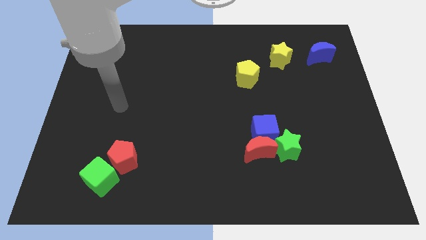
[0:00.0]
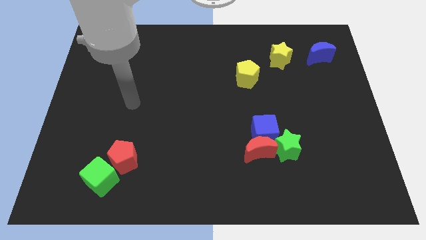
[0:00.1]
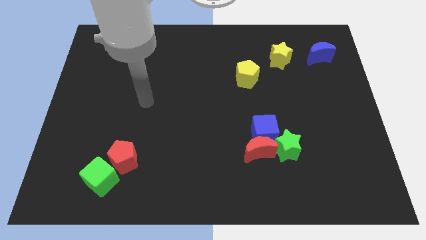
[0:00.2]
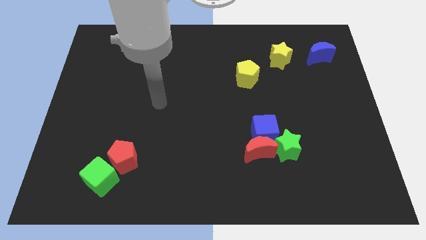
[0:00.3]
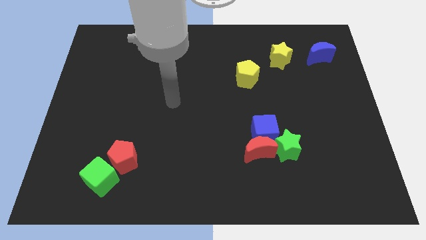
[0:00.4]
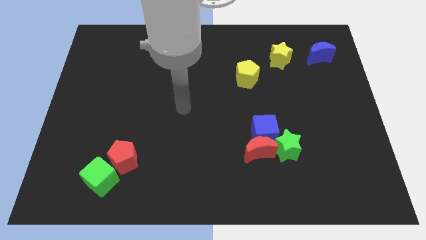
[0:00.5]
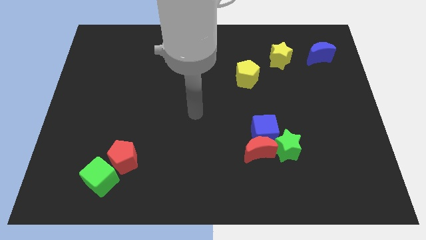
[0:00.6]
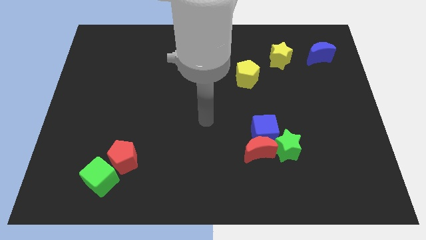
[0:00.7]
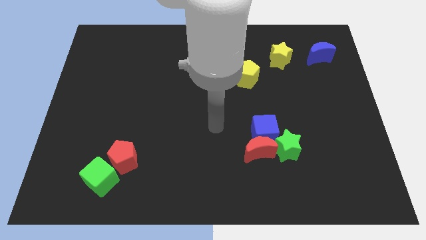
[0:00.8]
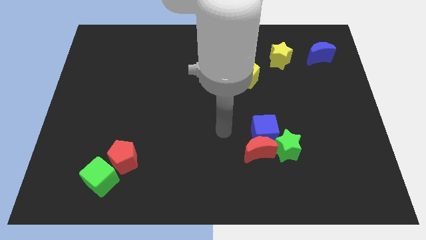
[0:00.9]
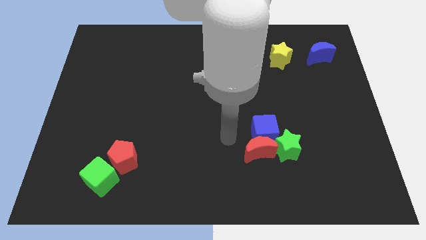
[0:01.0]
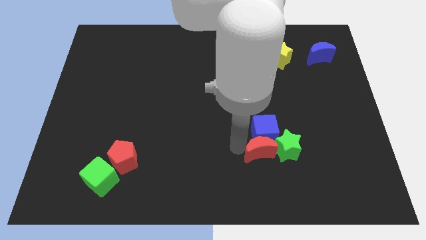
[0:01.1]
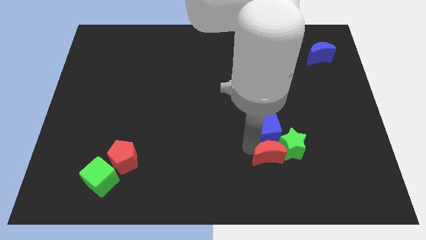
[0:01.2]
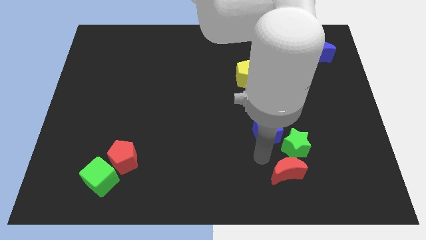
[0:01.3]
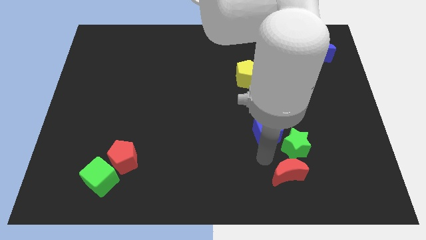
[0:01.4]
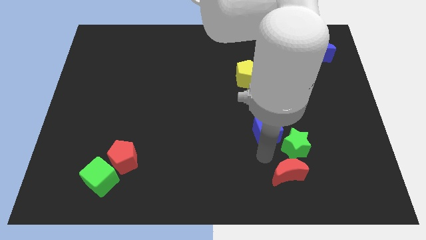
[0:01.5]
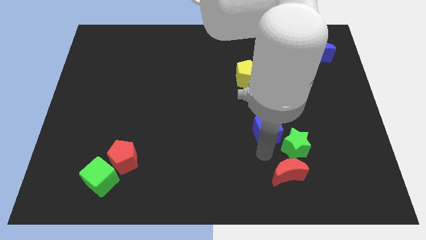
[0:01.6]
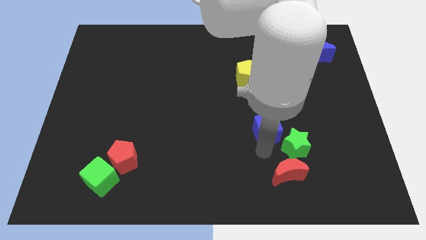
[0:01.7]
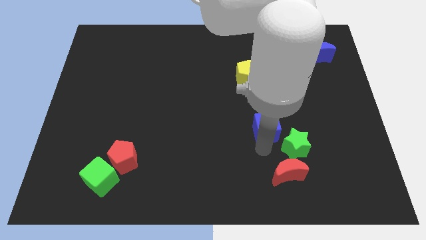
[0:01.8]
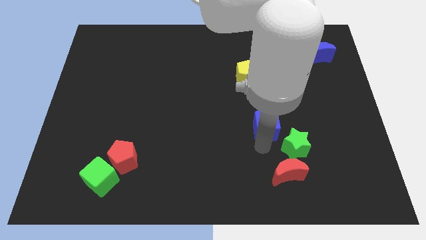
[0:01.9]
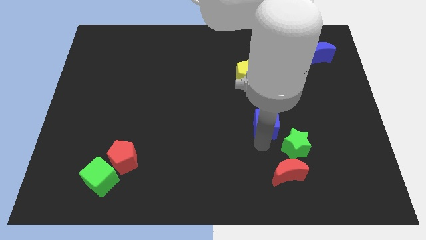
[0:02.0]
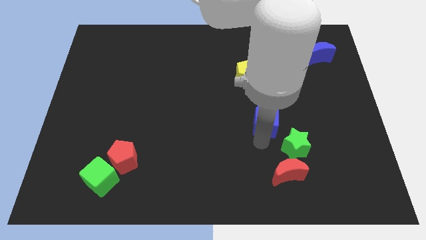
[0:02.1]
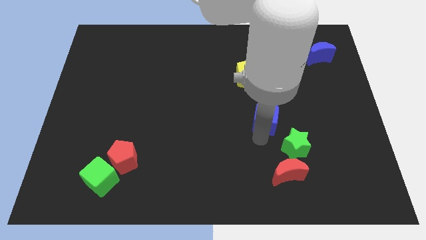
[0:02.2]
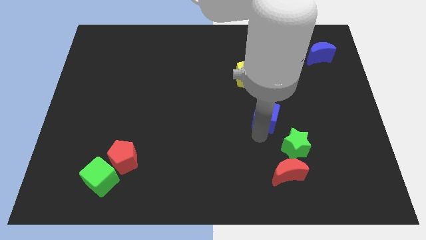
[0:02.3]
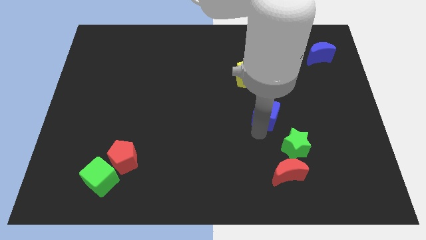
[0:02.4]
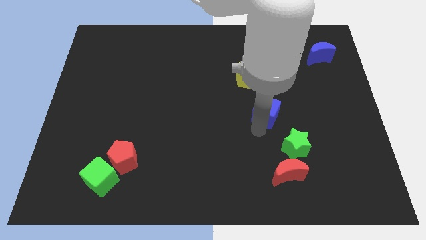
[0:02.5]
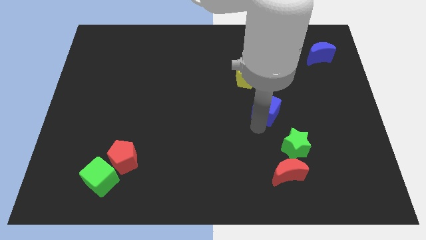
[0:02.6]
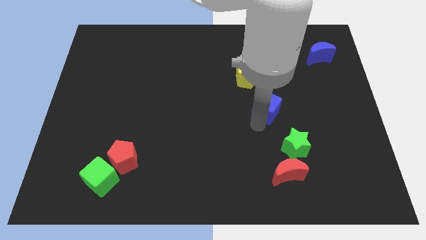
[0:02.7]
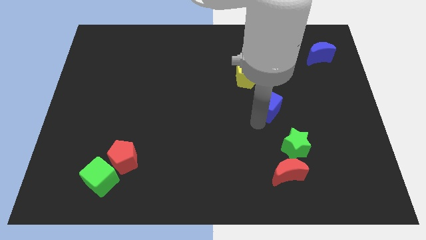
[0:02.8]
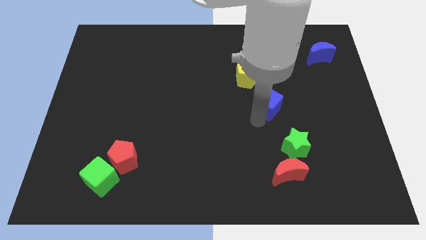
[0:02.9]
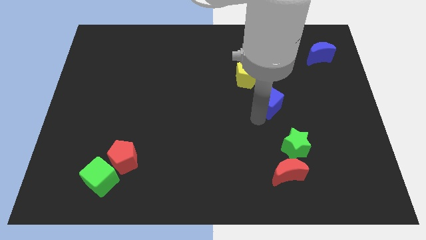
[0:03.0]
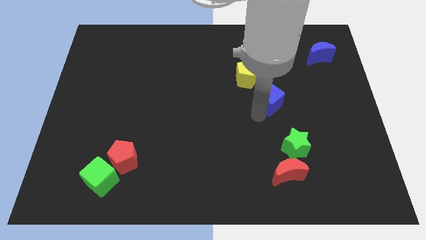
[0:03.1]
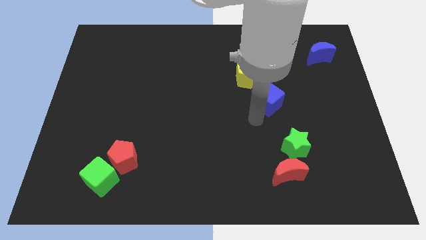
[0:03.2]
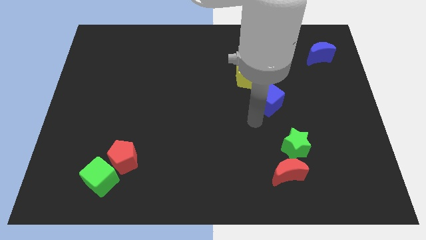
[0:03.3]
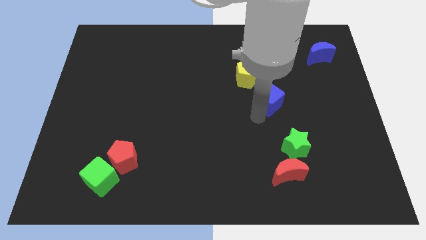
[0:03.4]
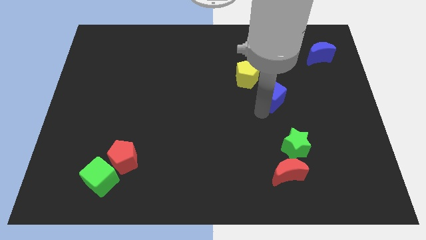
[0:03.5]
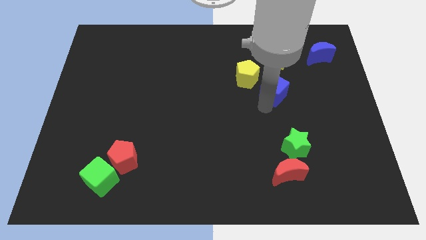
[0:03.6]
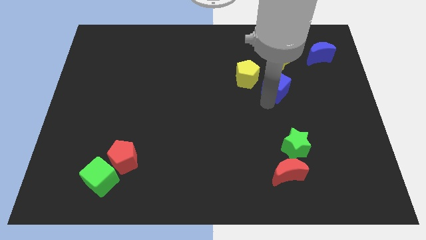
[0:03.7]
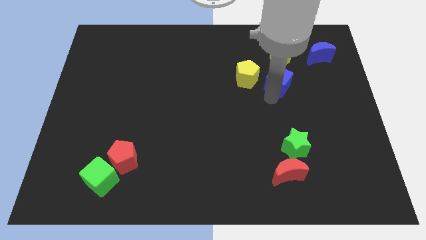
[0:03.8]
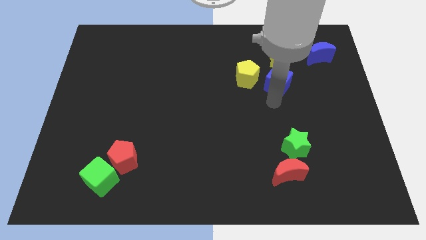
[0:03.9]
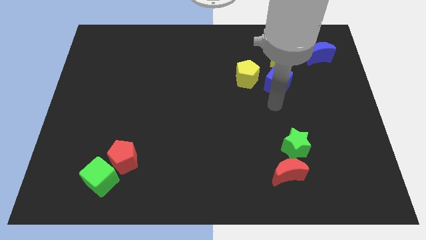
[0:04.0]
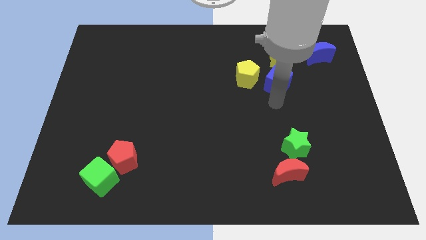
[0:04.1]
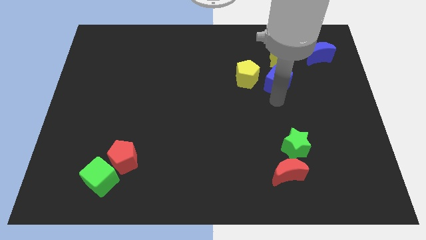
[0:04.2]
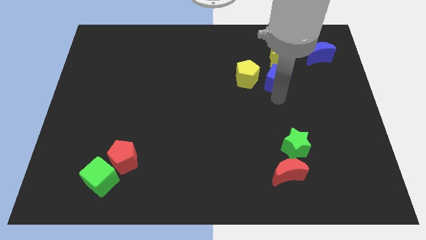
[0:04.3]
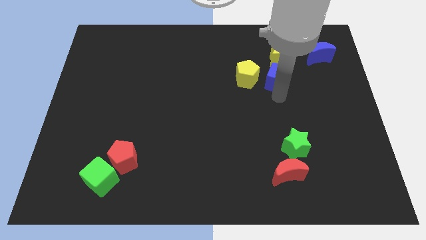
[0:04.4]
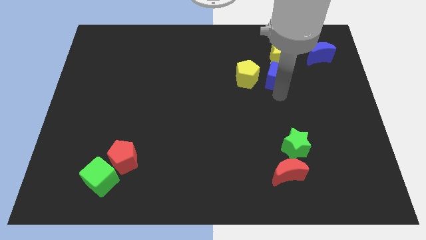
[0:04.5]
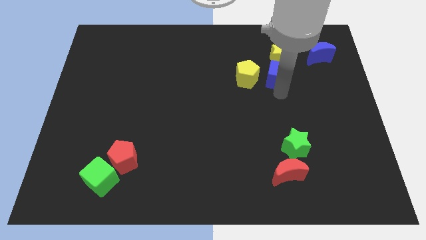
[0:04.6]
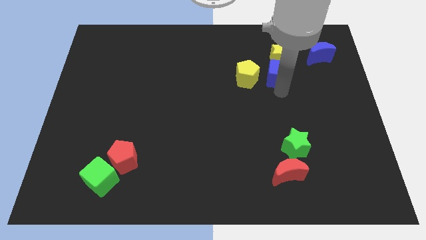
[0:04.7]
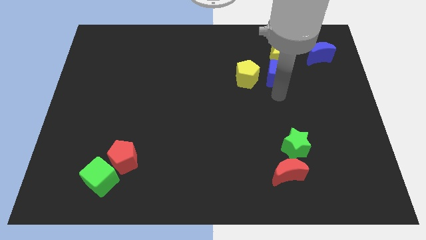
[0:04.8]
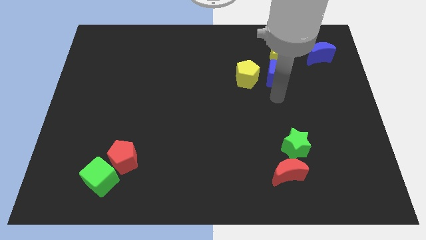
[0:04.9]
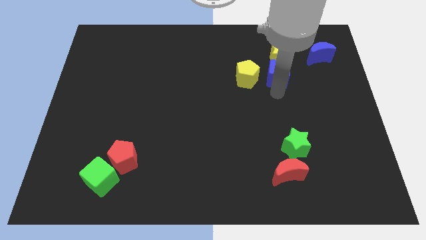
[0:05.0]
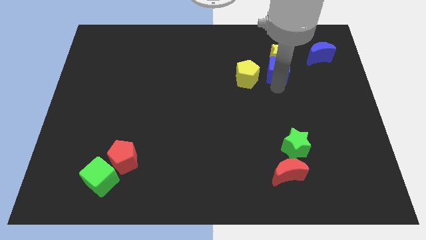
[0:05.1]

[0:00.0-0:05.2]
slide the blue cube close to the yellow star

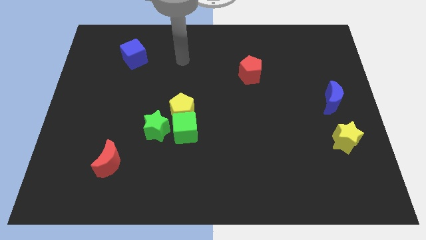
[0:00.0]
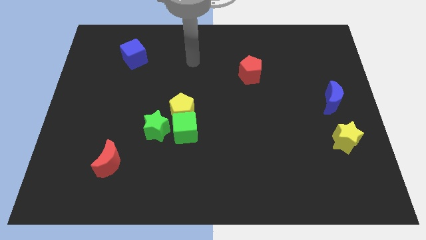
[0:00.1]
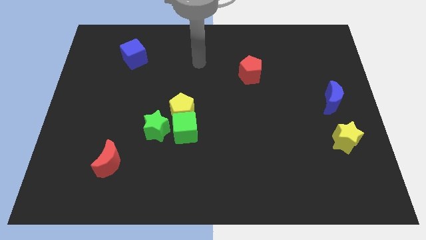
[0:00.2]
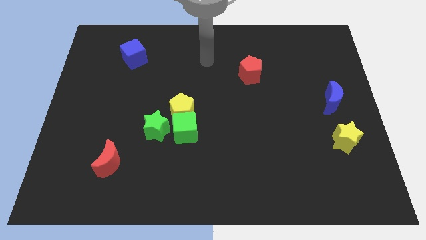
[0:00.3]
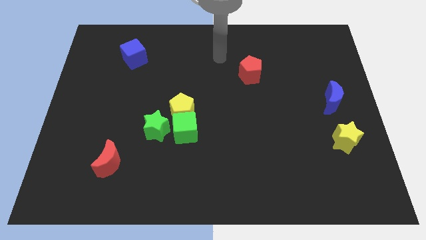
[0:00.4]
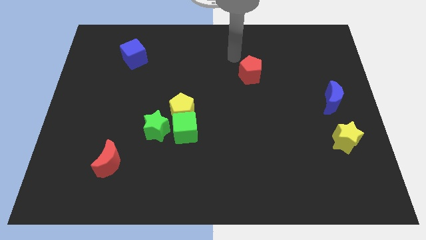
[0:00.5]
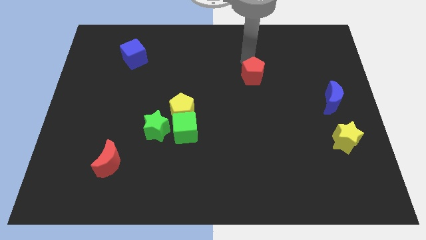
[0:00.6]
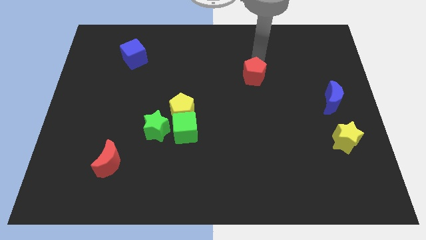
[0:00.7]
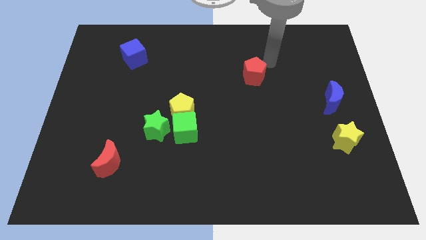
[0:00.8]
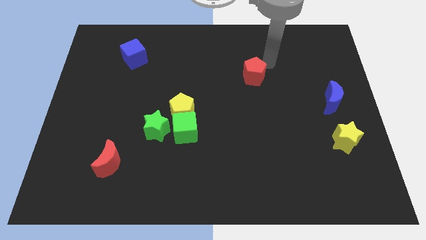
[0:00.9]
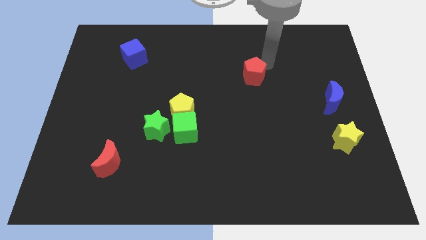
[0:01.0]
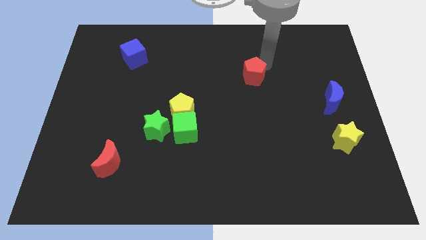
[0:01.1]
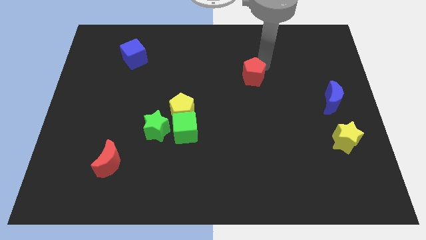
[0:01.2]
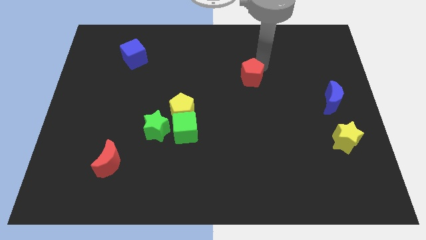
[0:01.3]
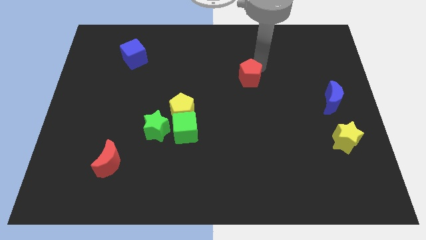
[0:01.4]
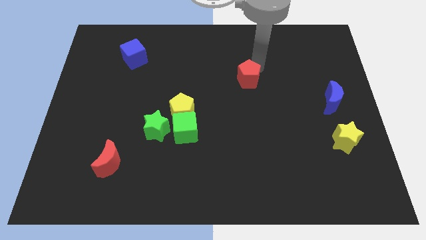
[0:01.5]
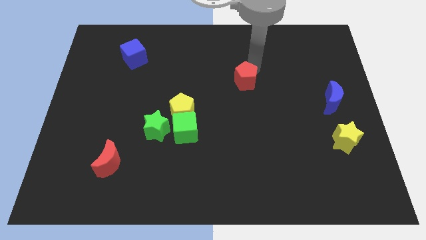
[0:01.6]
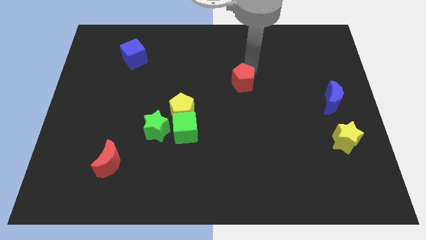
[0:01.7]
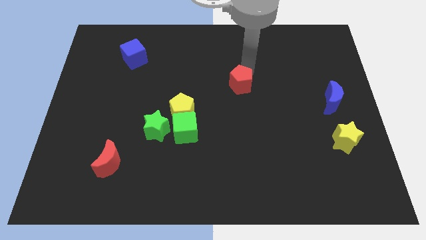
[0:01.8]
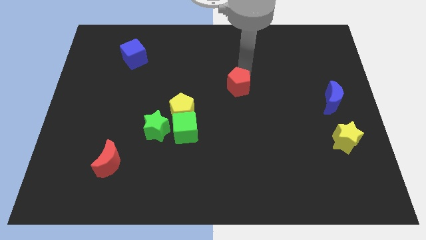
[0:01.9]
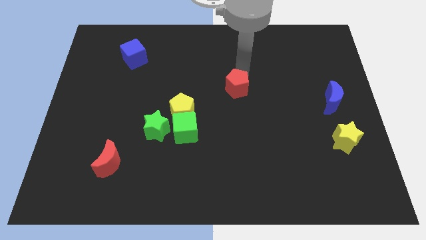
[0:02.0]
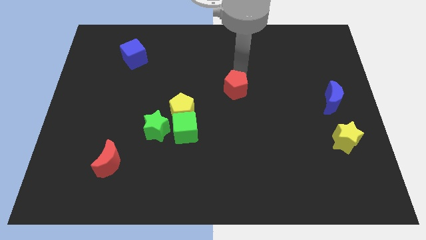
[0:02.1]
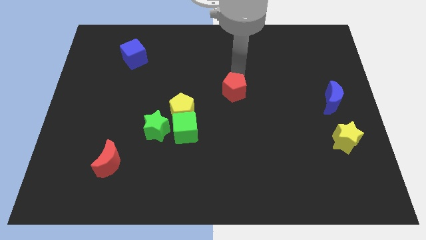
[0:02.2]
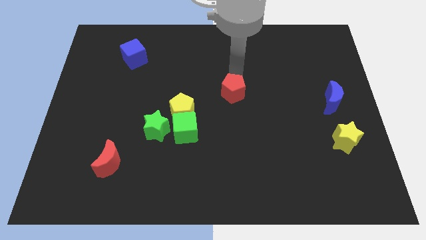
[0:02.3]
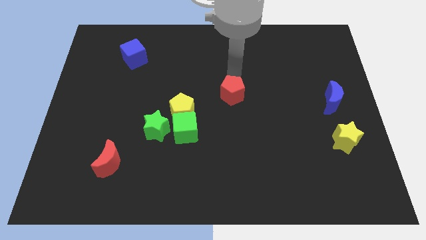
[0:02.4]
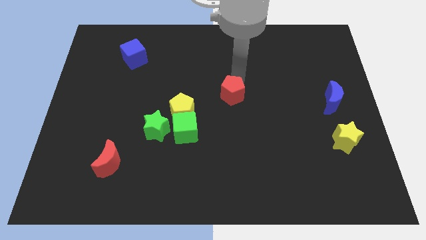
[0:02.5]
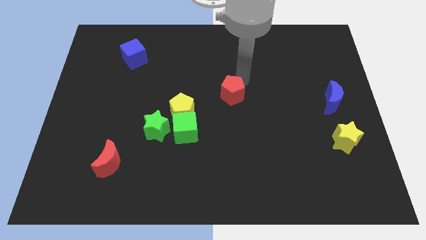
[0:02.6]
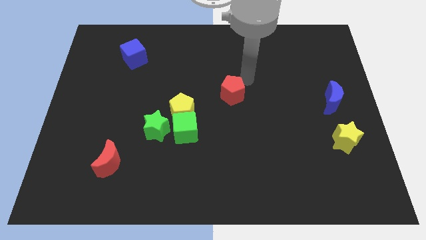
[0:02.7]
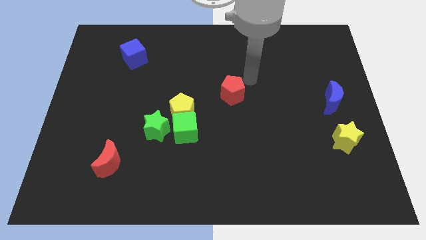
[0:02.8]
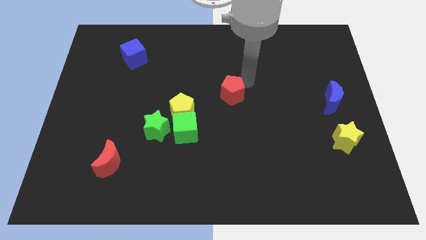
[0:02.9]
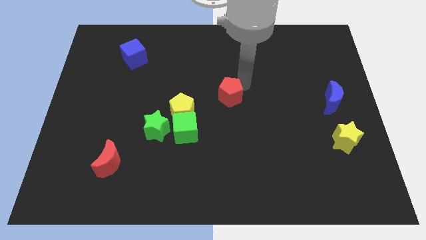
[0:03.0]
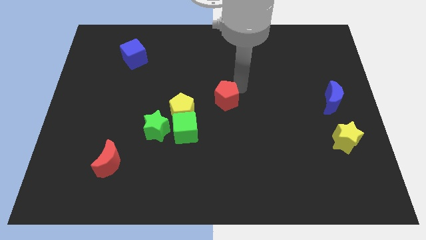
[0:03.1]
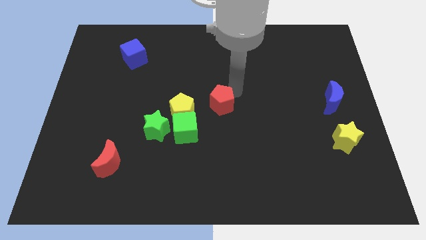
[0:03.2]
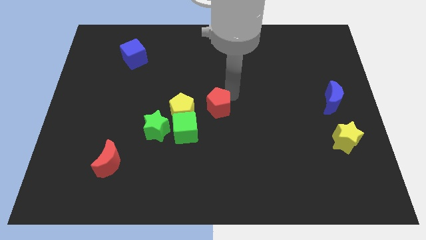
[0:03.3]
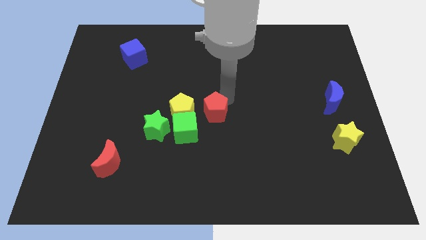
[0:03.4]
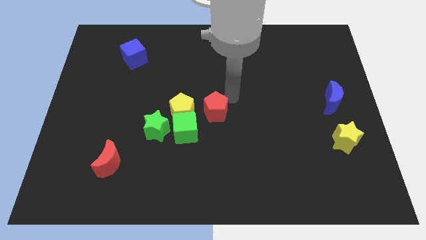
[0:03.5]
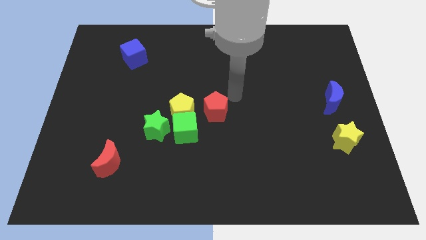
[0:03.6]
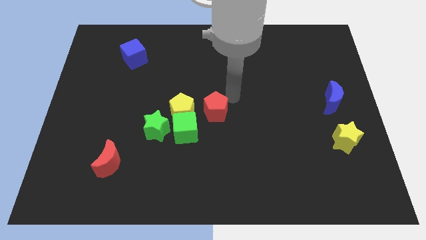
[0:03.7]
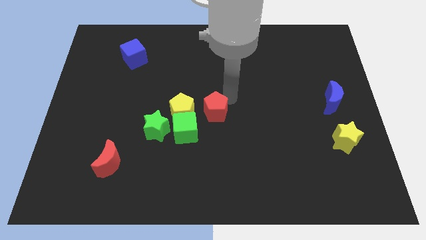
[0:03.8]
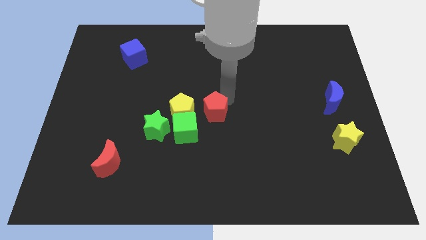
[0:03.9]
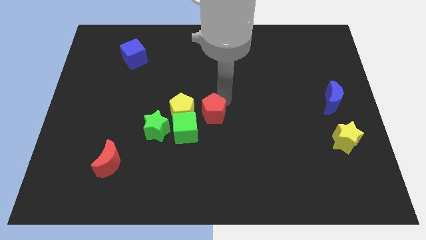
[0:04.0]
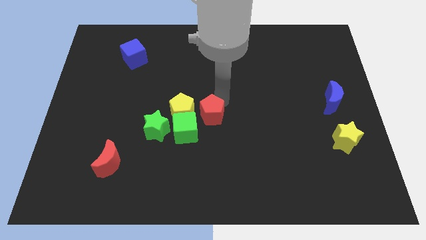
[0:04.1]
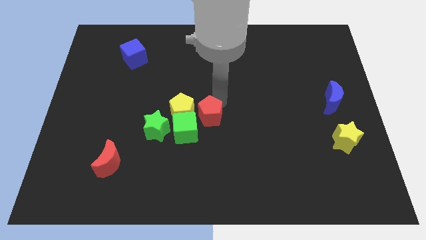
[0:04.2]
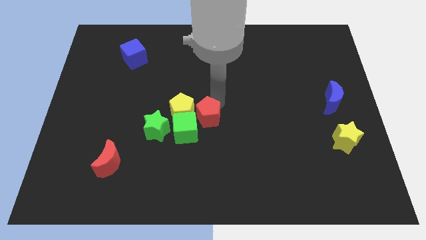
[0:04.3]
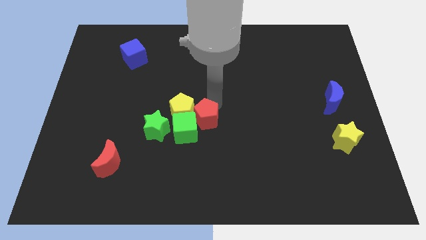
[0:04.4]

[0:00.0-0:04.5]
slide the red pentagon close to the green cube
